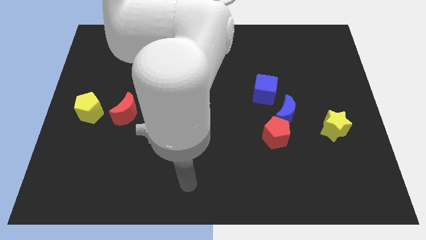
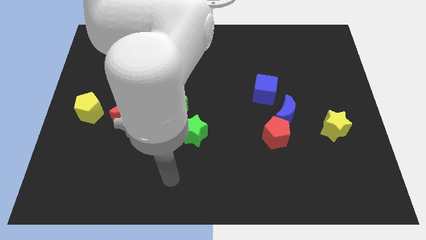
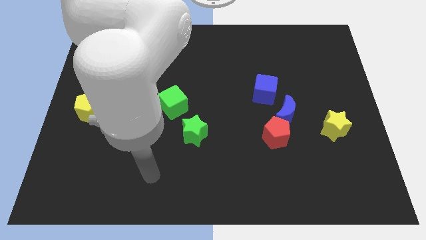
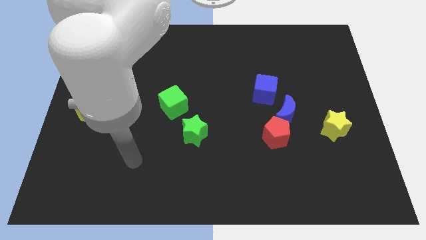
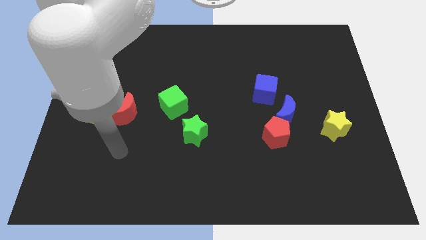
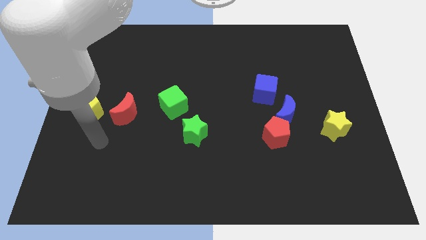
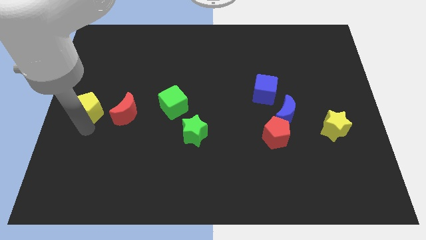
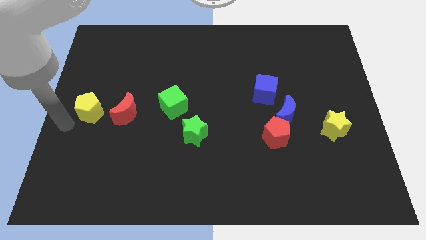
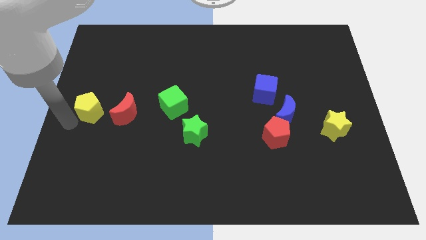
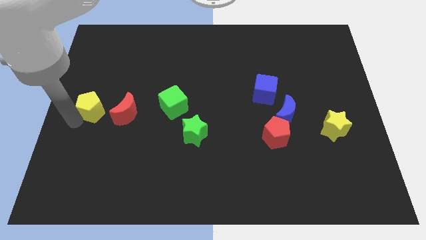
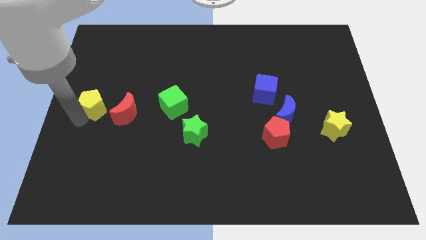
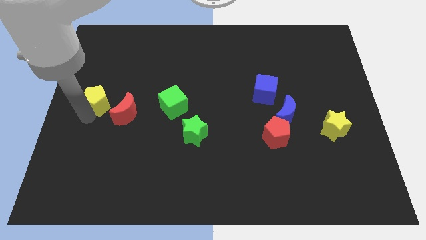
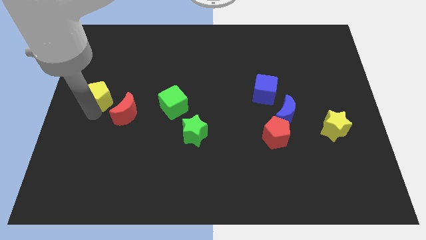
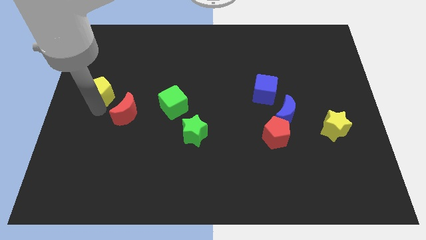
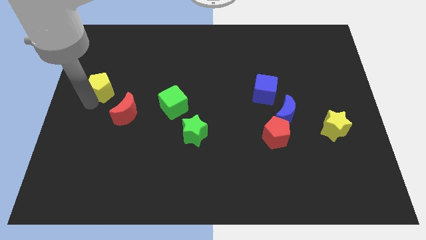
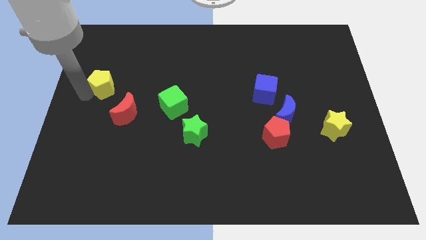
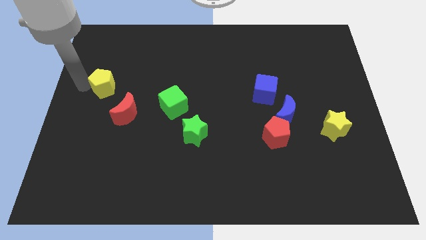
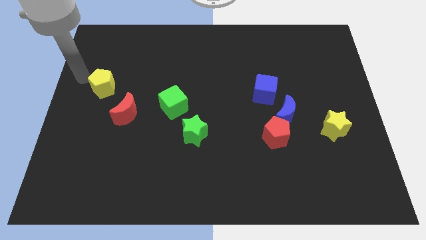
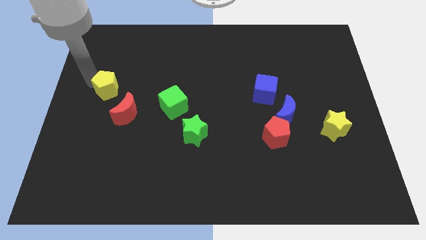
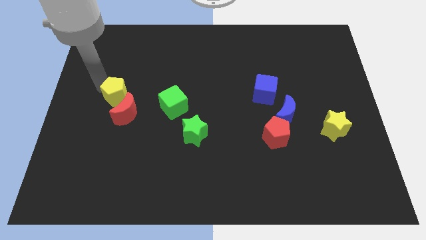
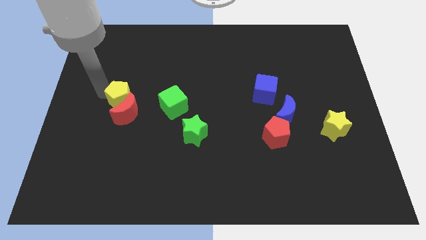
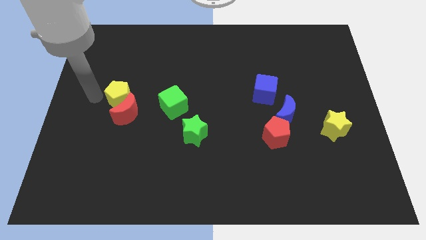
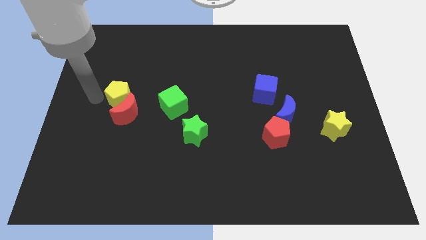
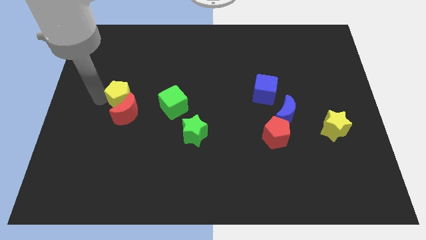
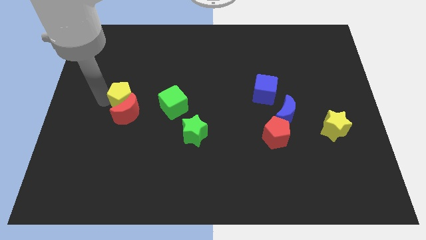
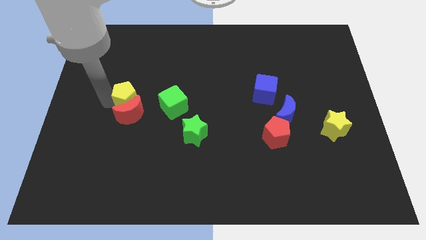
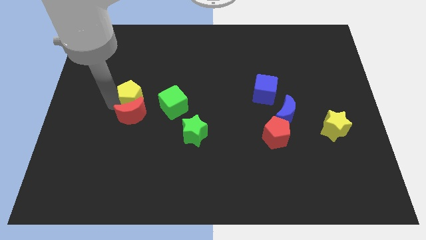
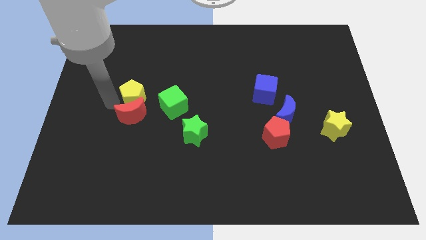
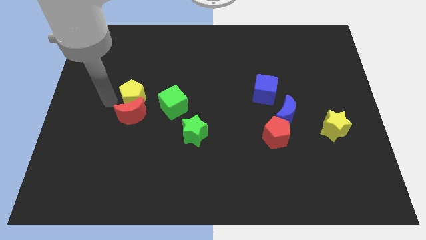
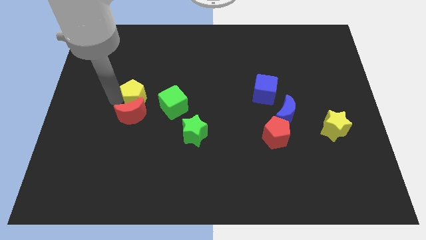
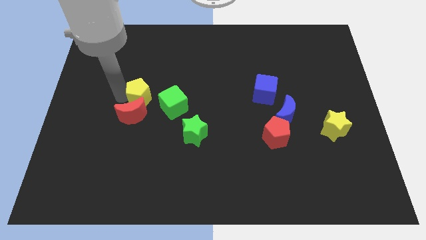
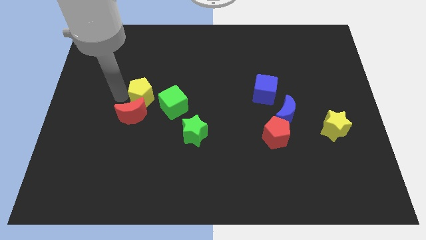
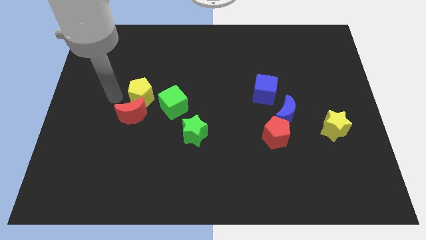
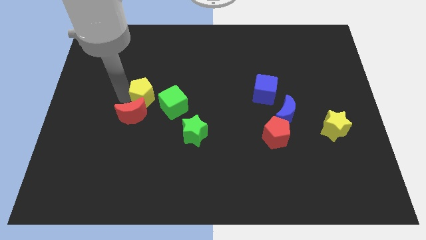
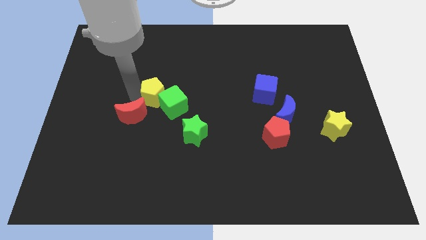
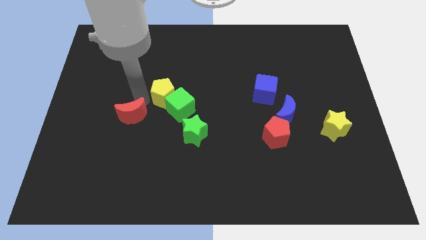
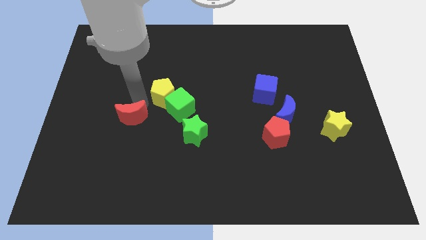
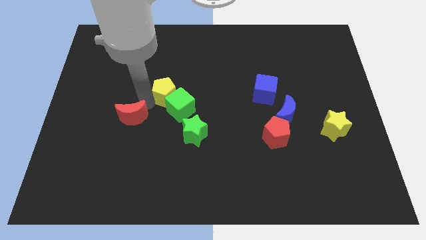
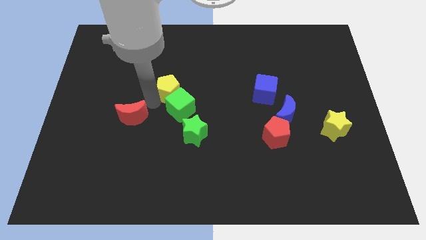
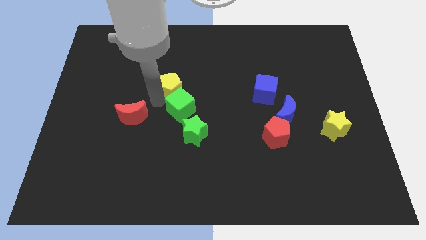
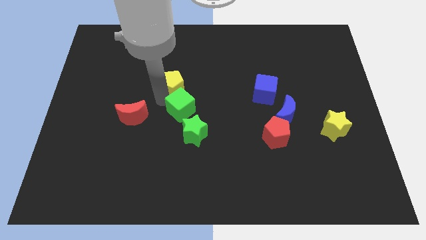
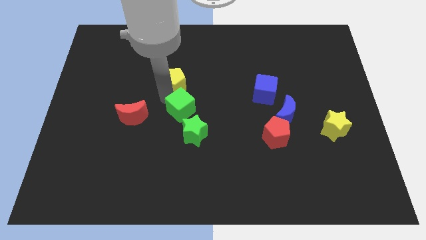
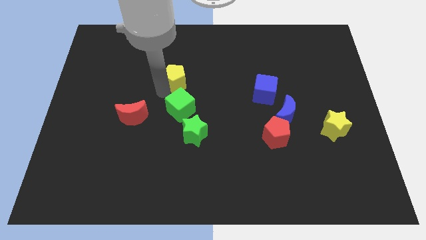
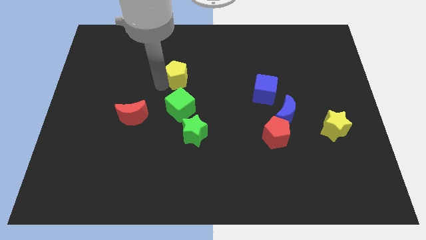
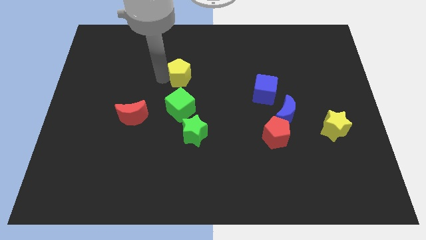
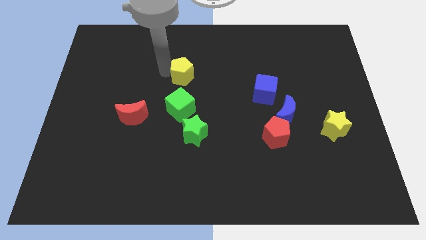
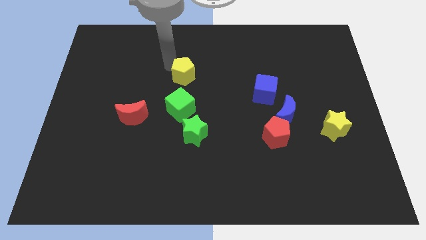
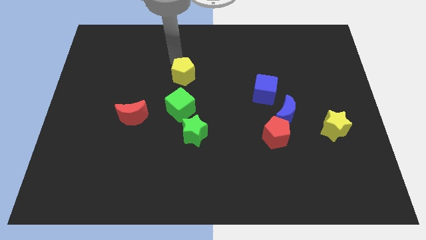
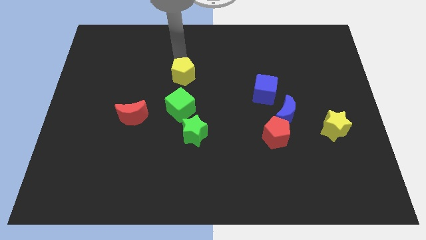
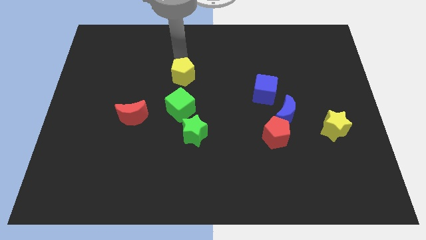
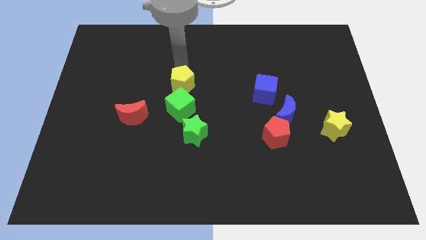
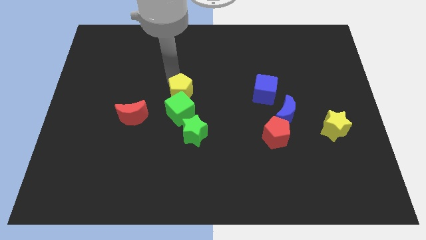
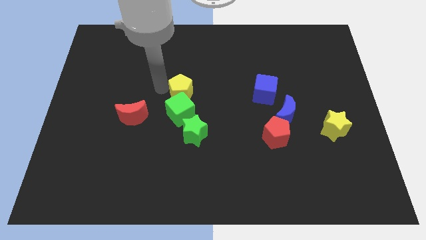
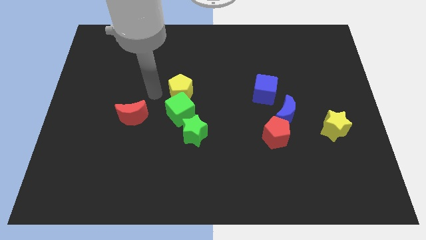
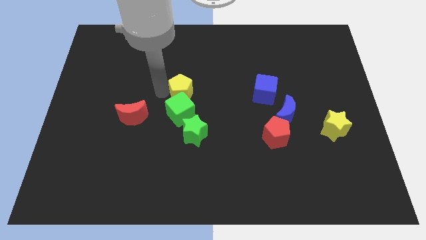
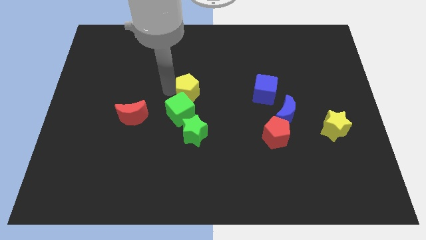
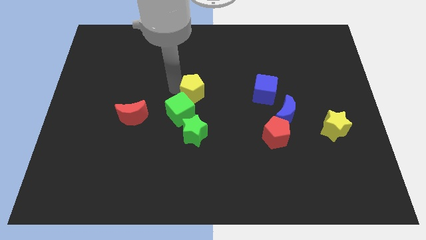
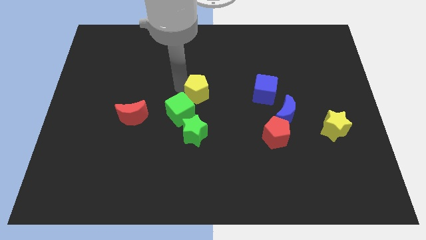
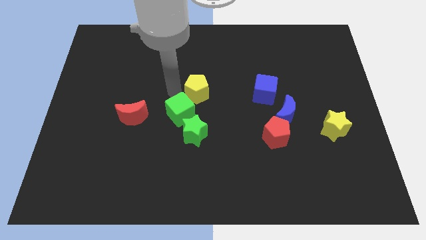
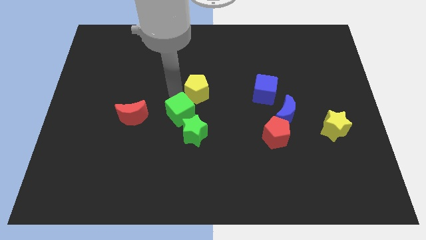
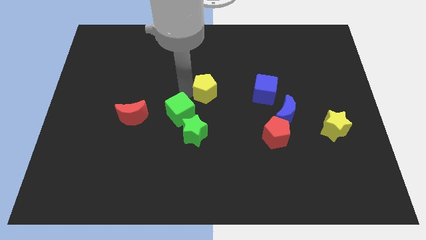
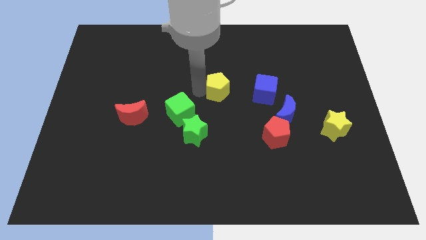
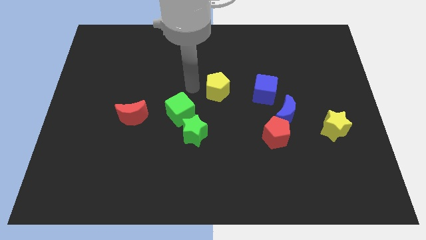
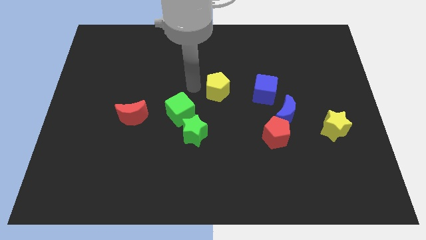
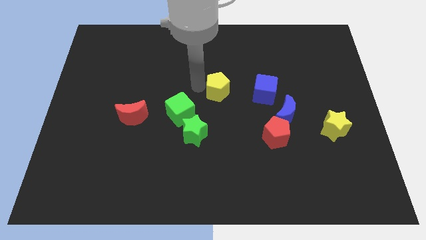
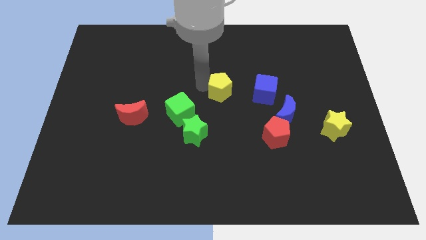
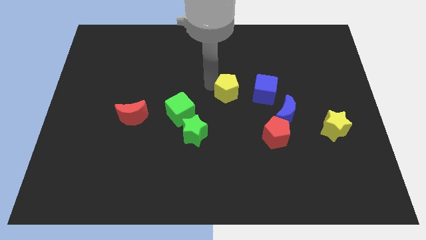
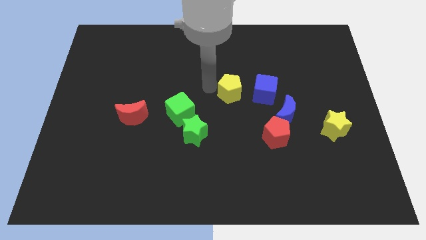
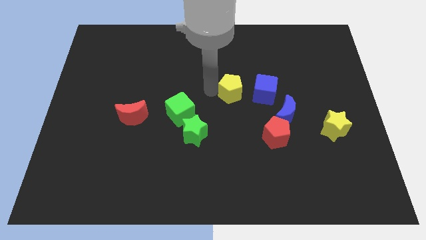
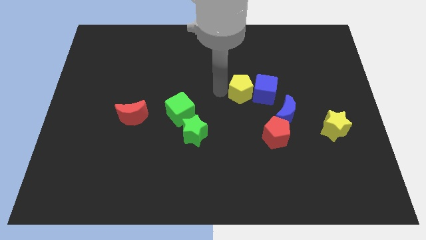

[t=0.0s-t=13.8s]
push the yellow pentagon next to the blue cube

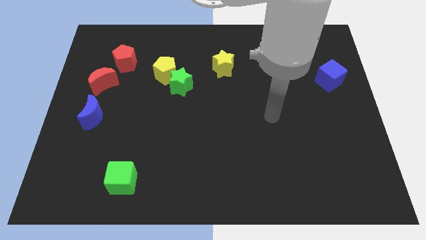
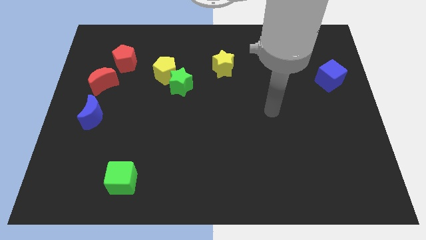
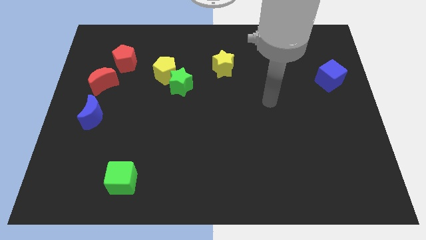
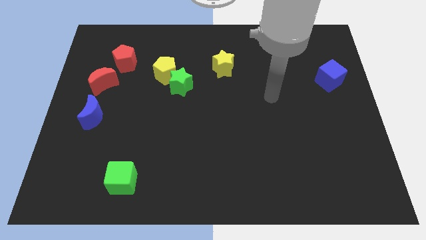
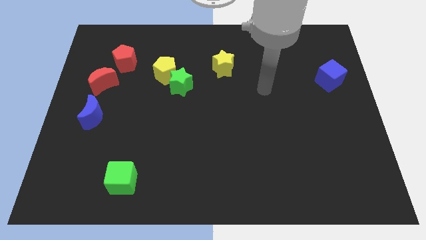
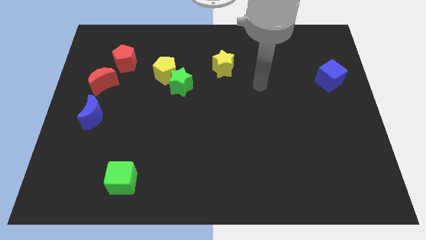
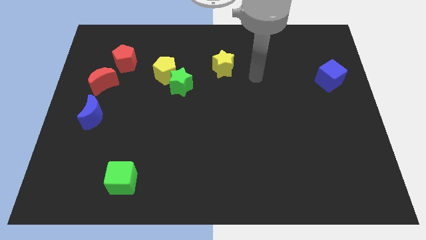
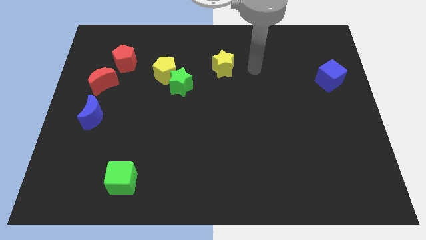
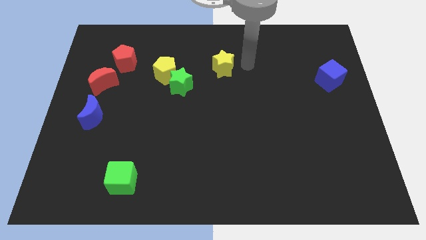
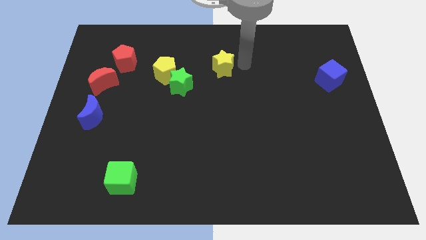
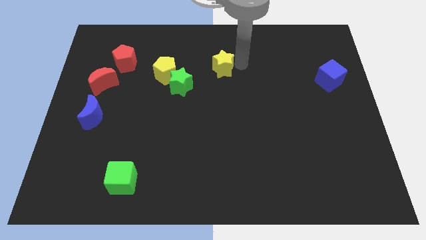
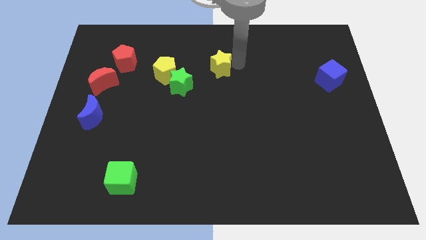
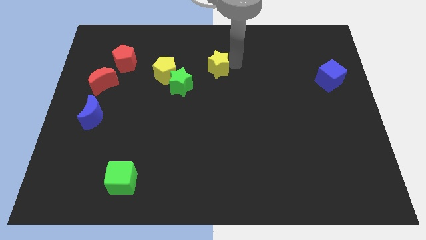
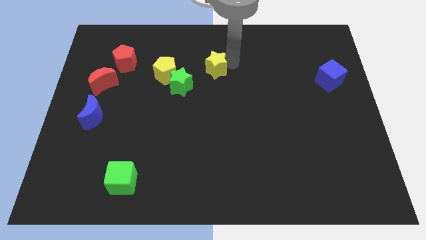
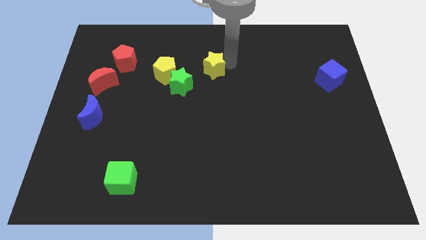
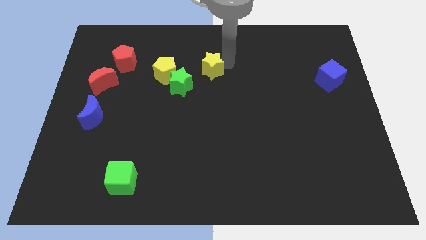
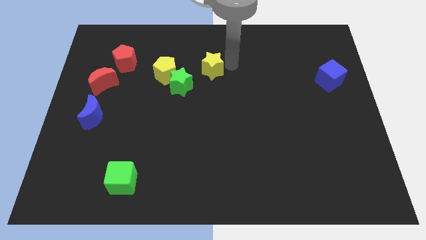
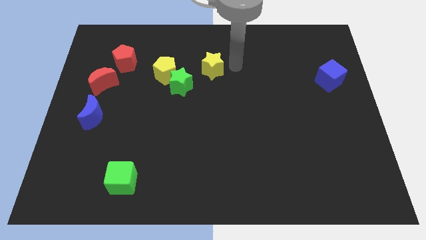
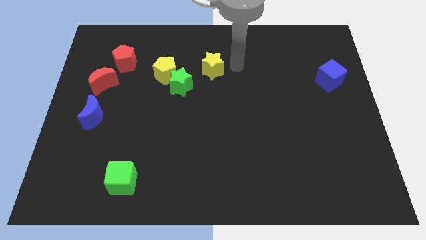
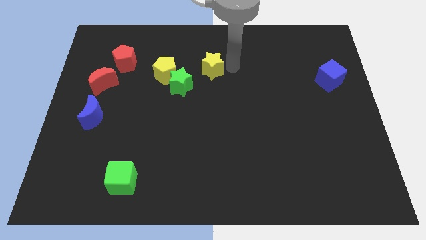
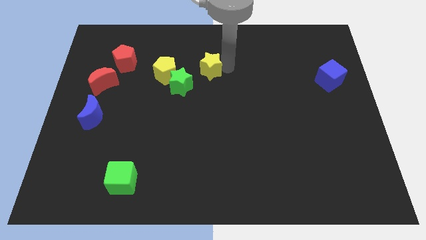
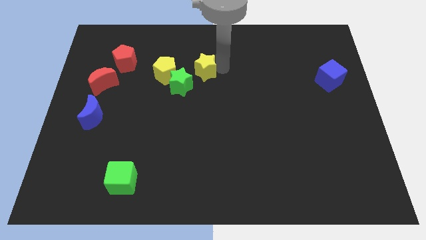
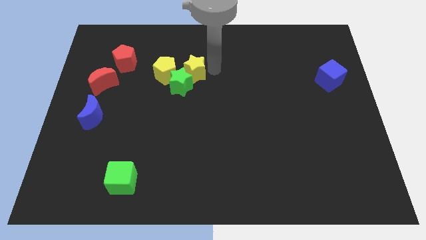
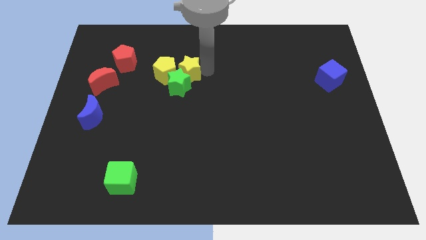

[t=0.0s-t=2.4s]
move the yellow star to the yellow pentagon
